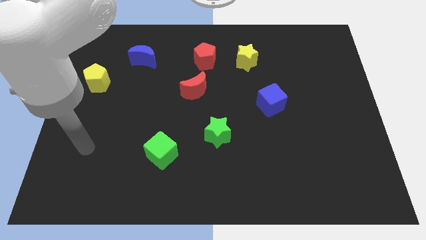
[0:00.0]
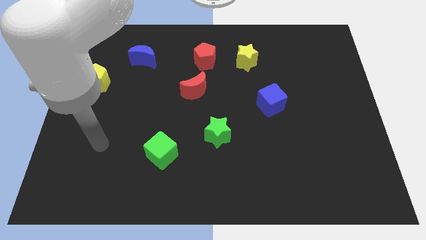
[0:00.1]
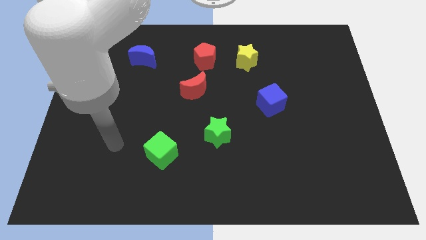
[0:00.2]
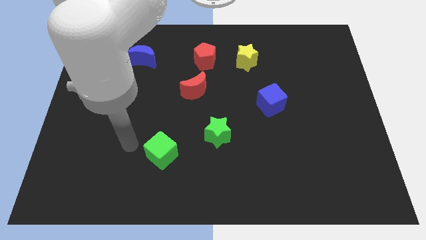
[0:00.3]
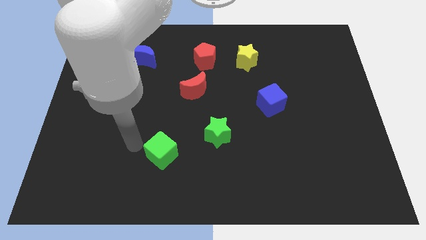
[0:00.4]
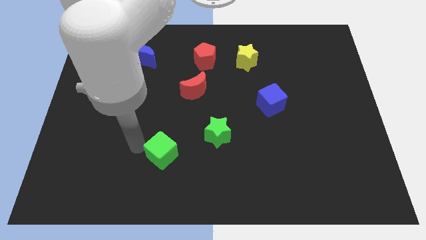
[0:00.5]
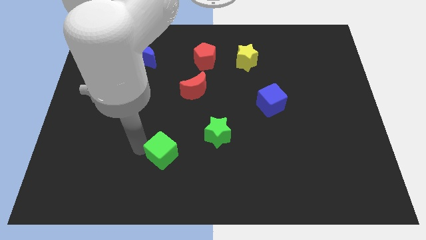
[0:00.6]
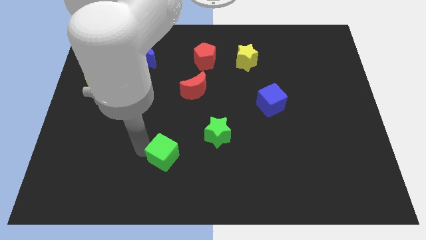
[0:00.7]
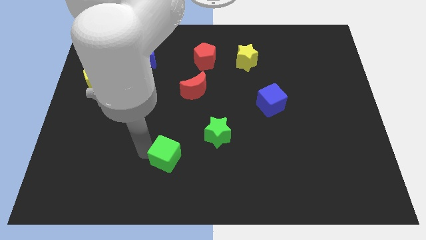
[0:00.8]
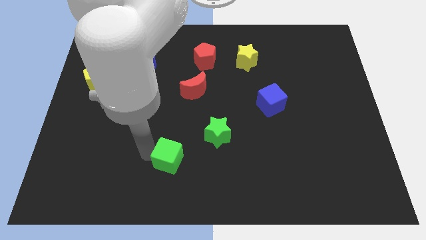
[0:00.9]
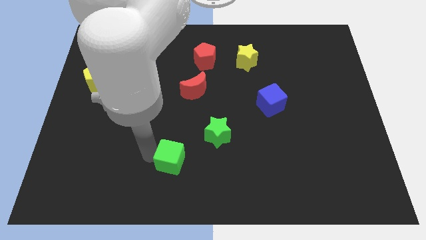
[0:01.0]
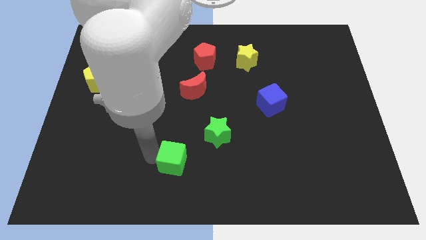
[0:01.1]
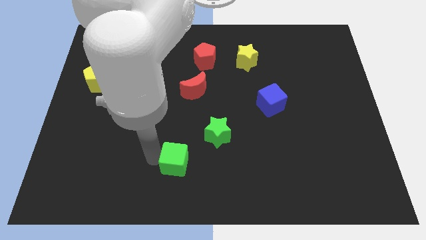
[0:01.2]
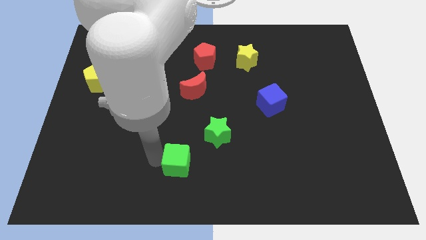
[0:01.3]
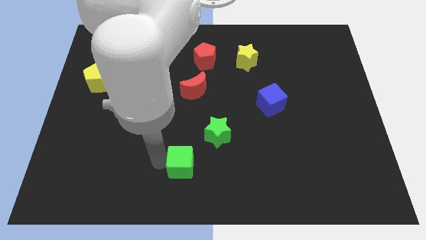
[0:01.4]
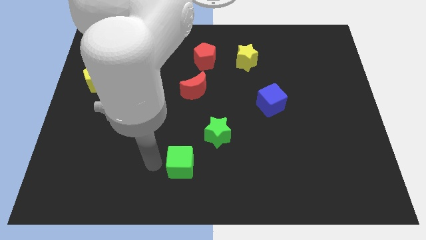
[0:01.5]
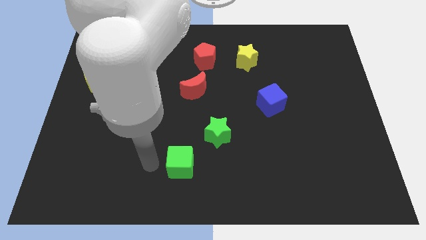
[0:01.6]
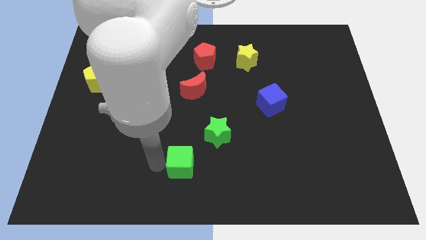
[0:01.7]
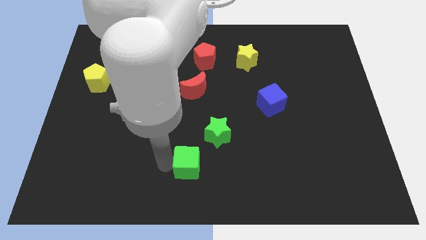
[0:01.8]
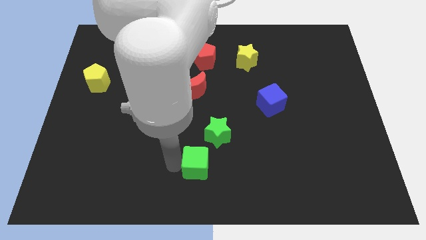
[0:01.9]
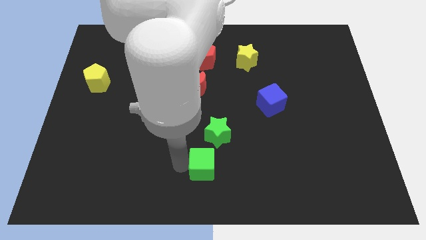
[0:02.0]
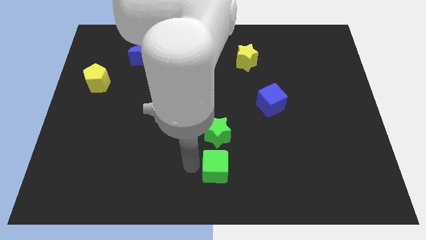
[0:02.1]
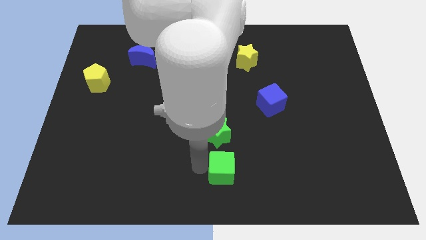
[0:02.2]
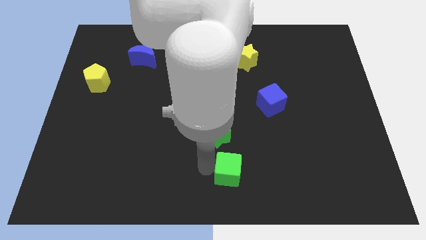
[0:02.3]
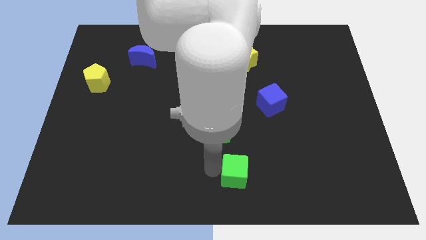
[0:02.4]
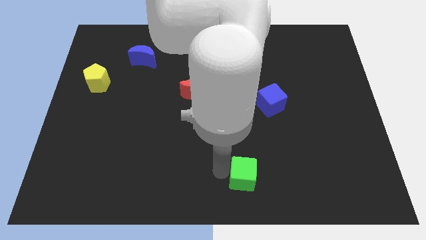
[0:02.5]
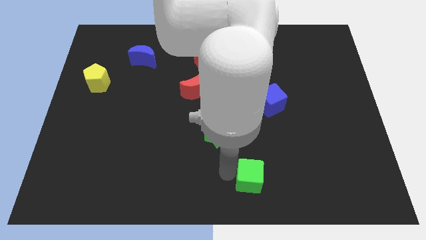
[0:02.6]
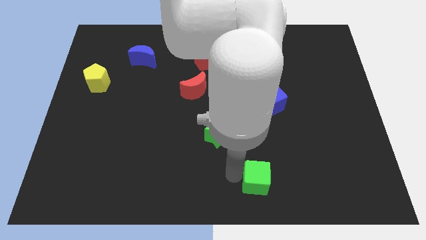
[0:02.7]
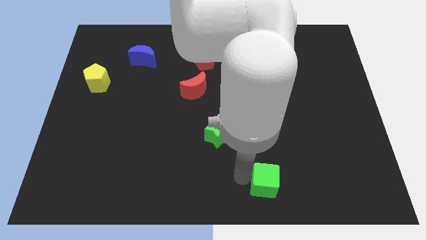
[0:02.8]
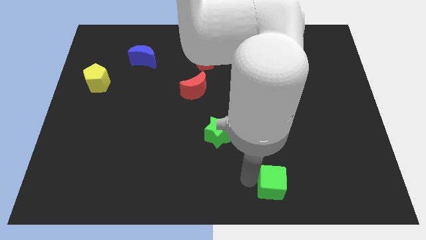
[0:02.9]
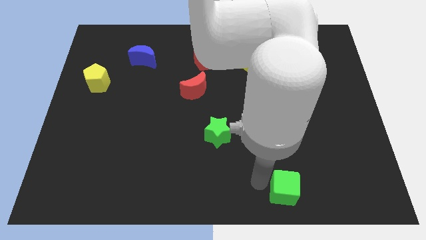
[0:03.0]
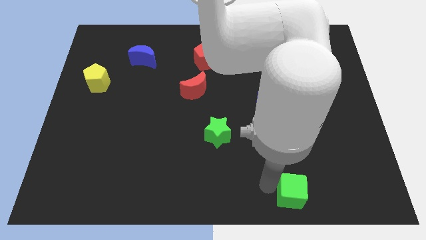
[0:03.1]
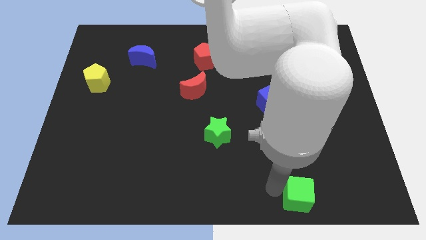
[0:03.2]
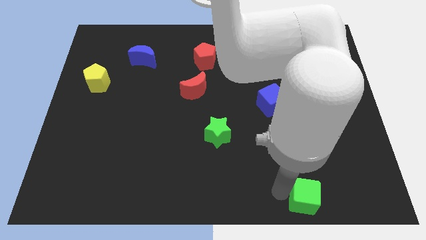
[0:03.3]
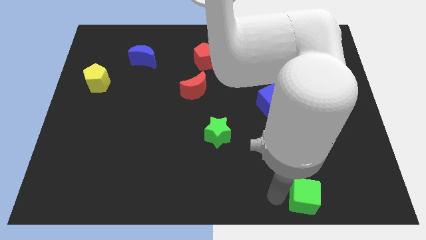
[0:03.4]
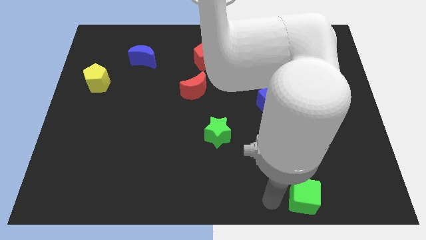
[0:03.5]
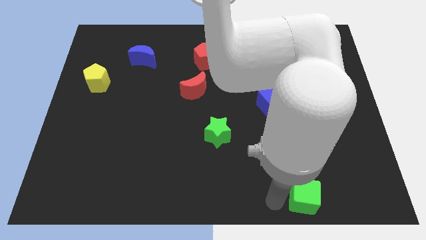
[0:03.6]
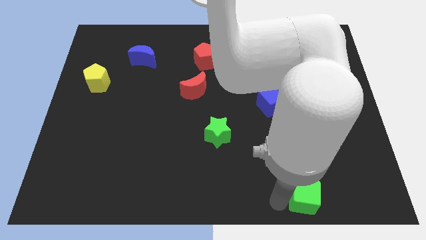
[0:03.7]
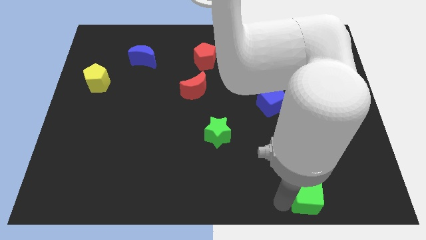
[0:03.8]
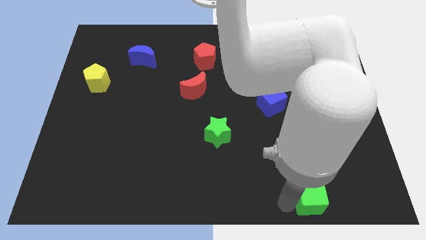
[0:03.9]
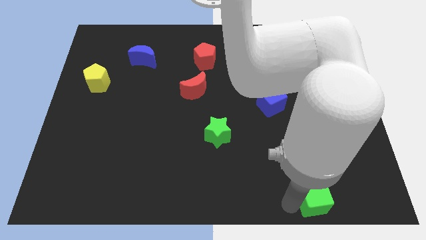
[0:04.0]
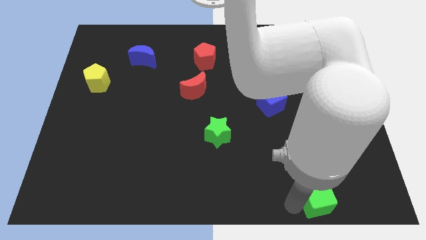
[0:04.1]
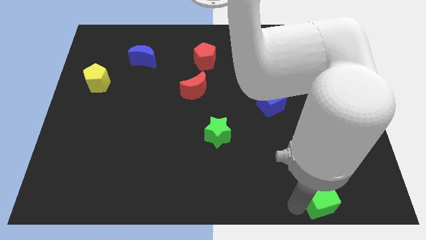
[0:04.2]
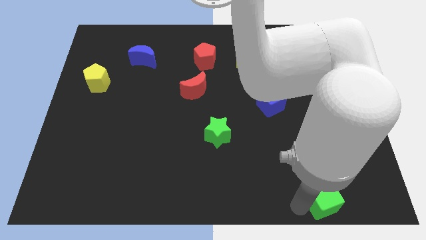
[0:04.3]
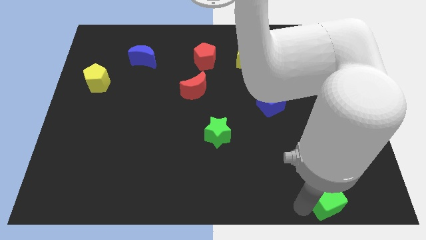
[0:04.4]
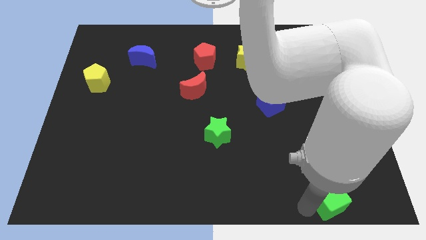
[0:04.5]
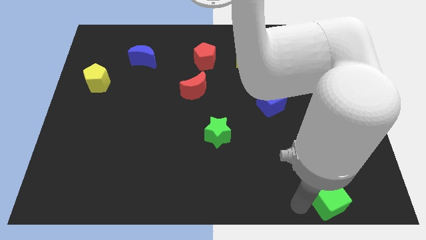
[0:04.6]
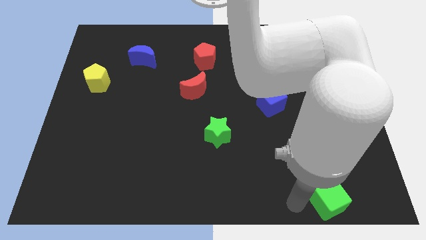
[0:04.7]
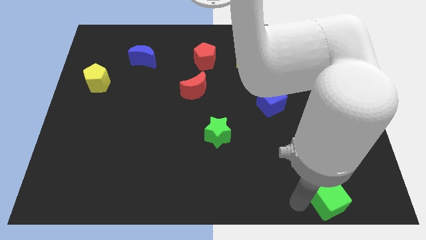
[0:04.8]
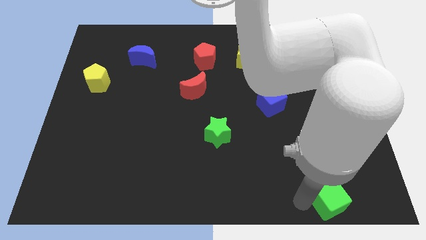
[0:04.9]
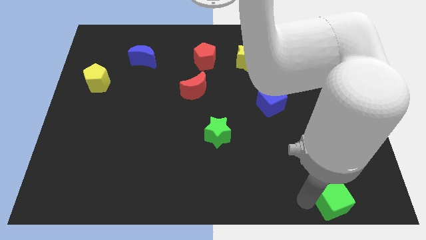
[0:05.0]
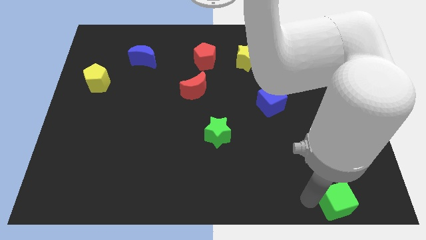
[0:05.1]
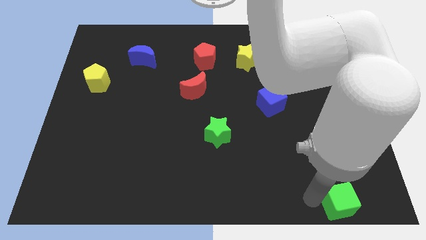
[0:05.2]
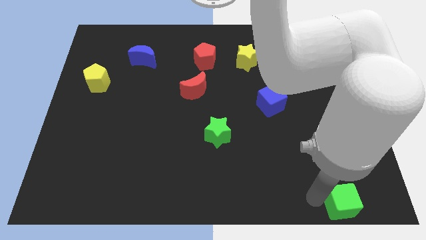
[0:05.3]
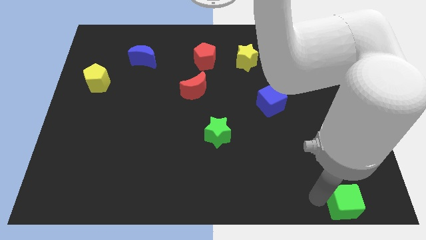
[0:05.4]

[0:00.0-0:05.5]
move the green cube to the bottom right of the board
